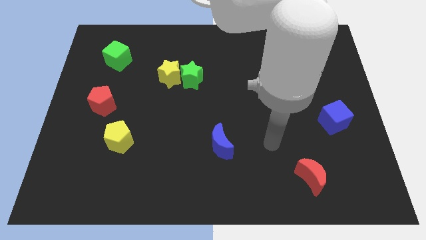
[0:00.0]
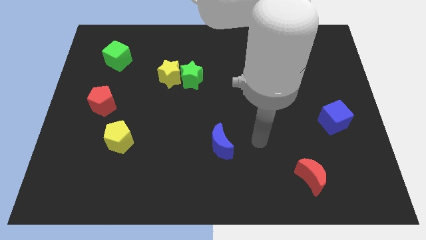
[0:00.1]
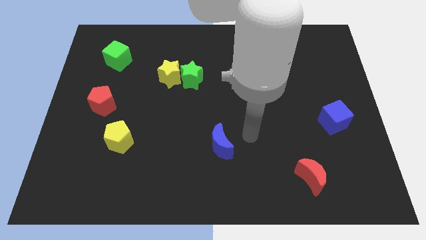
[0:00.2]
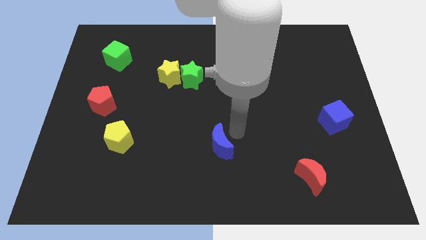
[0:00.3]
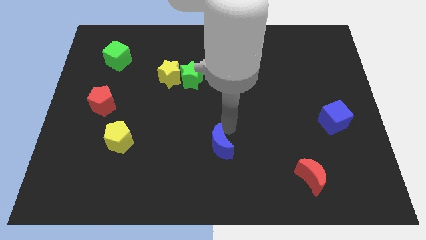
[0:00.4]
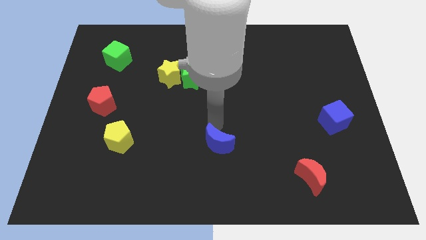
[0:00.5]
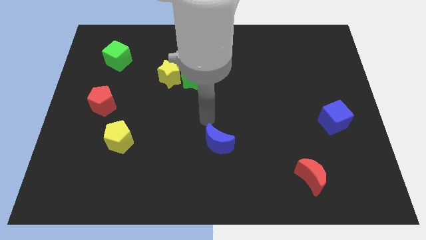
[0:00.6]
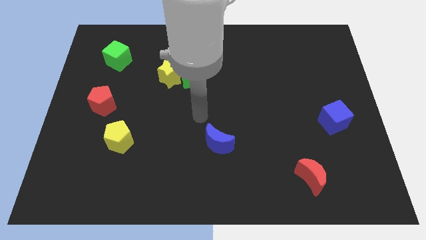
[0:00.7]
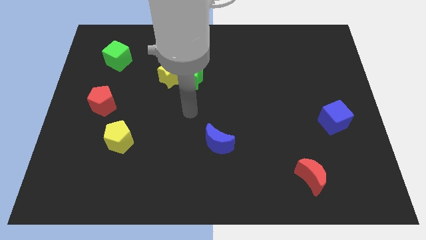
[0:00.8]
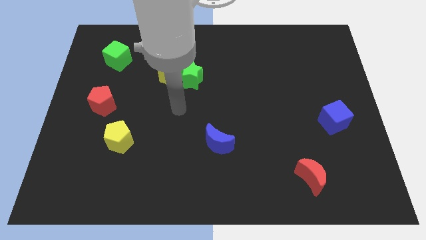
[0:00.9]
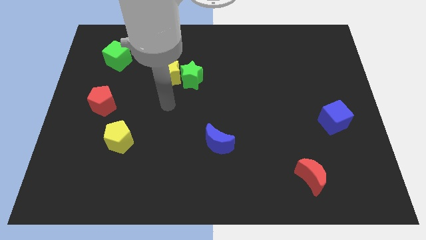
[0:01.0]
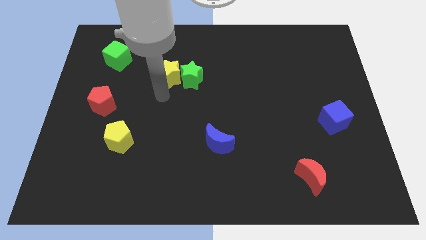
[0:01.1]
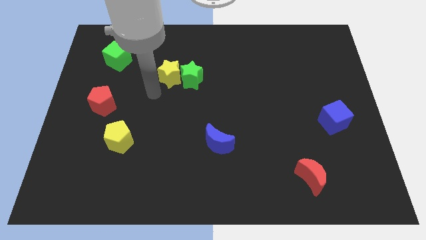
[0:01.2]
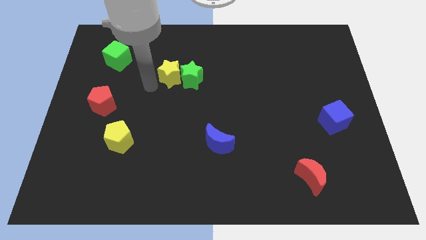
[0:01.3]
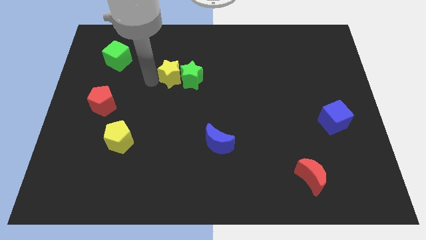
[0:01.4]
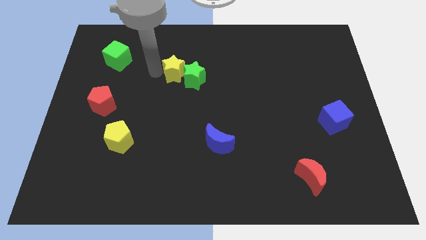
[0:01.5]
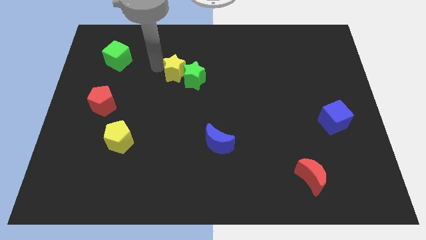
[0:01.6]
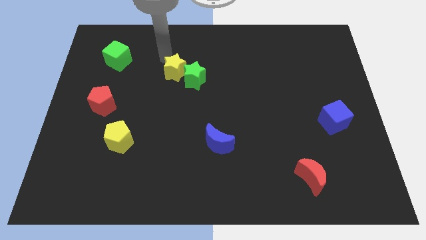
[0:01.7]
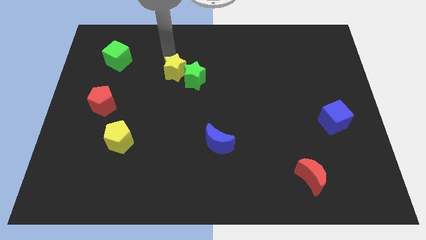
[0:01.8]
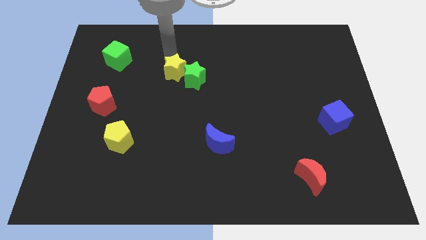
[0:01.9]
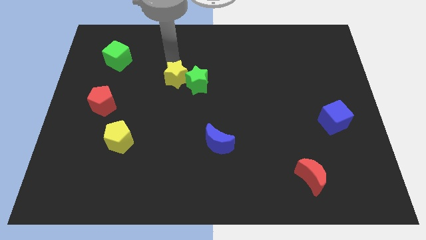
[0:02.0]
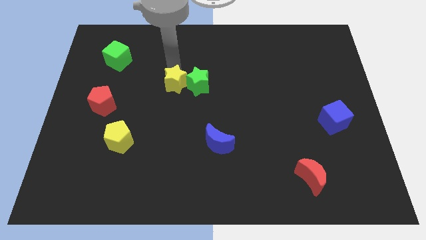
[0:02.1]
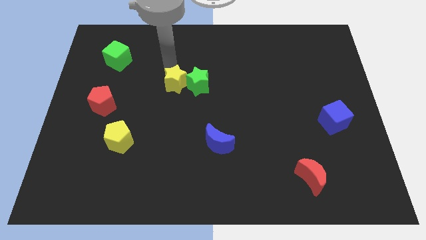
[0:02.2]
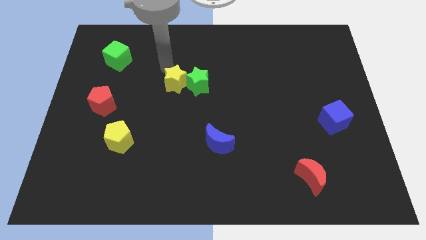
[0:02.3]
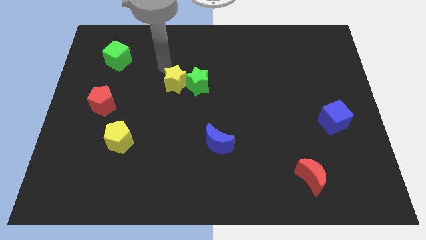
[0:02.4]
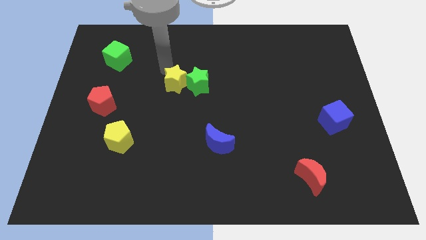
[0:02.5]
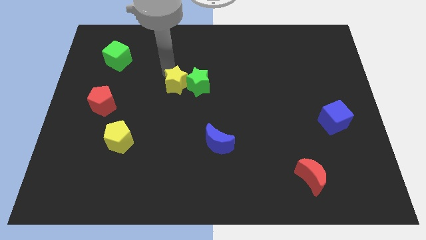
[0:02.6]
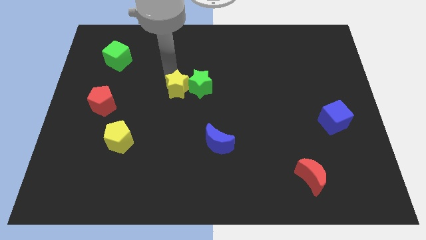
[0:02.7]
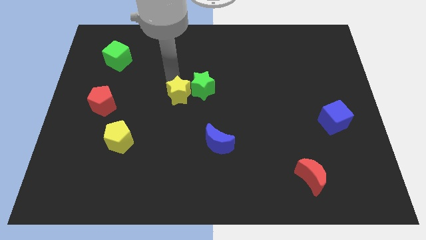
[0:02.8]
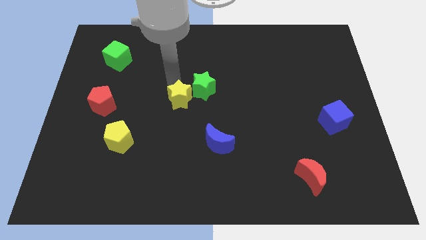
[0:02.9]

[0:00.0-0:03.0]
move the yellow star down and right slightly

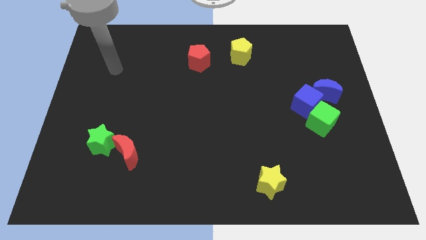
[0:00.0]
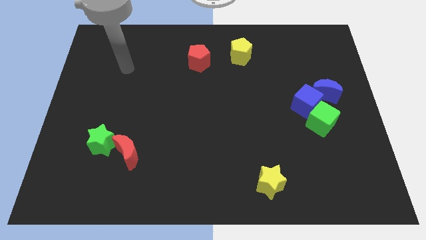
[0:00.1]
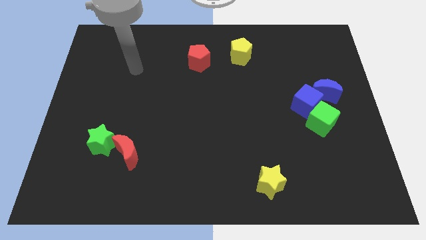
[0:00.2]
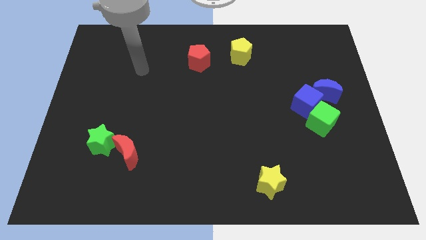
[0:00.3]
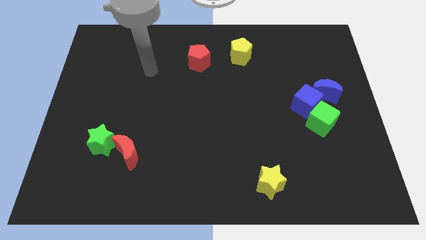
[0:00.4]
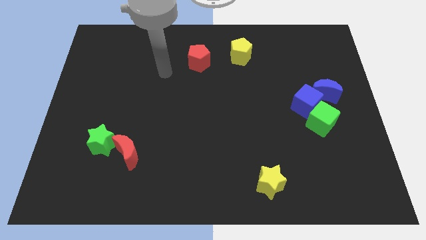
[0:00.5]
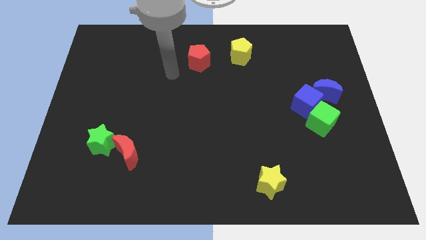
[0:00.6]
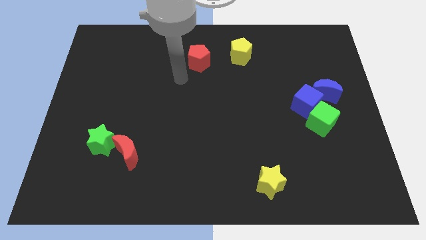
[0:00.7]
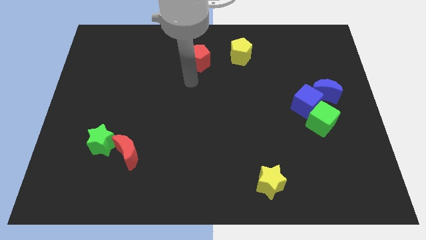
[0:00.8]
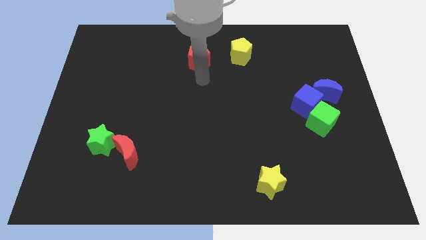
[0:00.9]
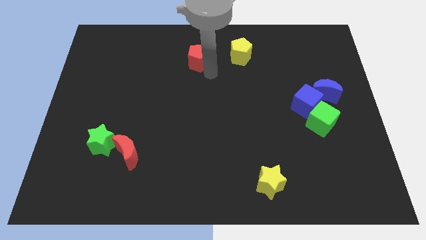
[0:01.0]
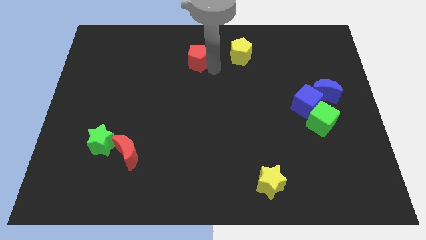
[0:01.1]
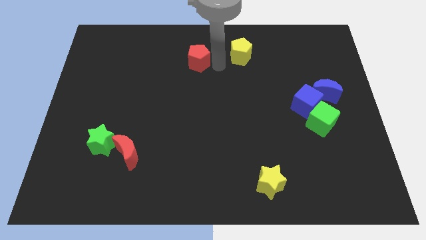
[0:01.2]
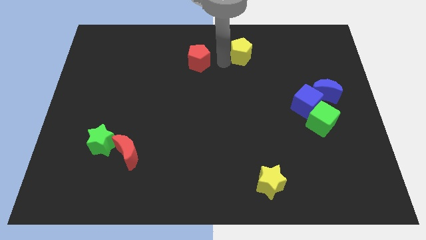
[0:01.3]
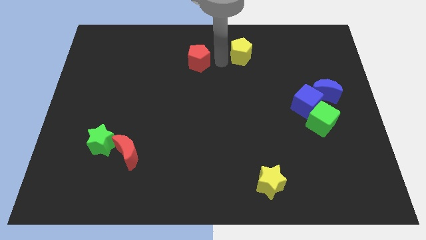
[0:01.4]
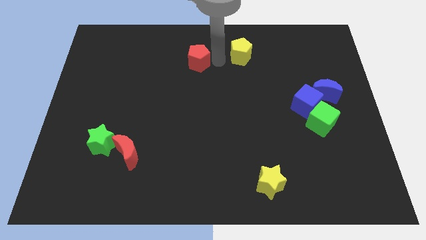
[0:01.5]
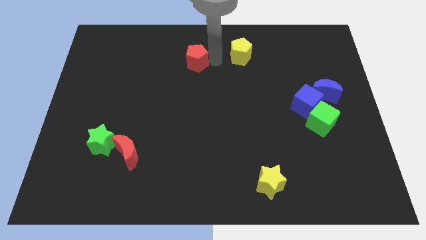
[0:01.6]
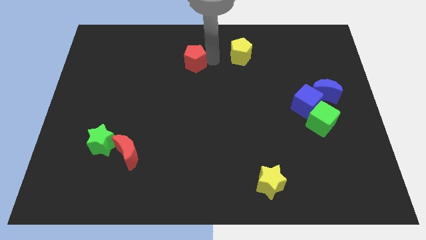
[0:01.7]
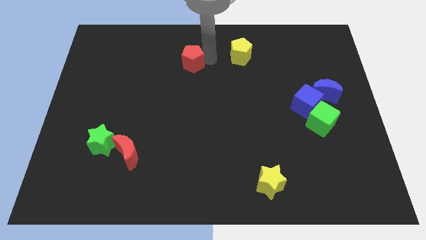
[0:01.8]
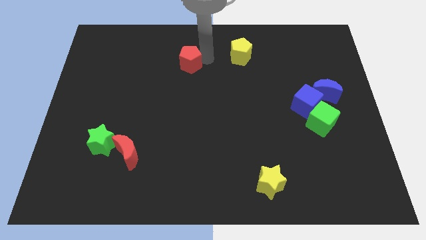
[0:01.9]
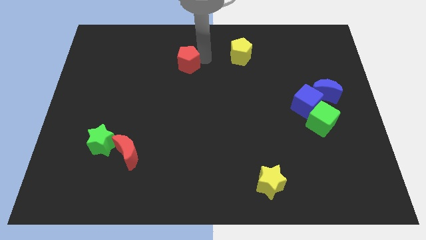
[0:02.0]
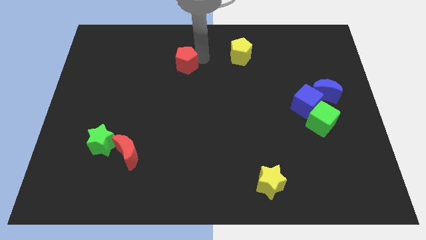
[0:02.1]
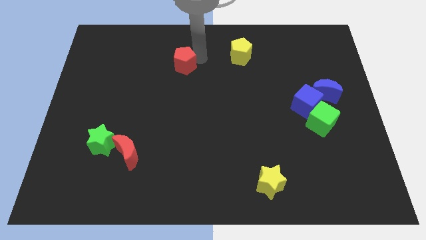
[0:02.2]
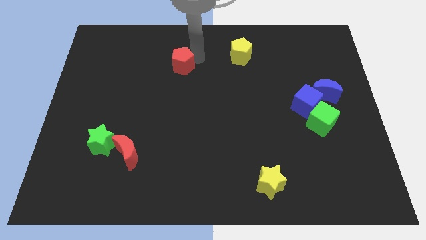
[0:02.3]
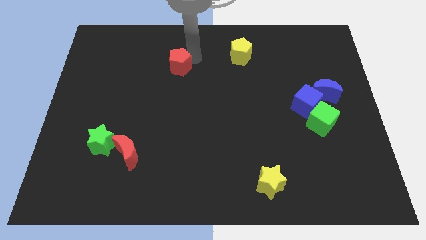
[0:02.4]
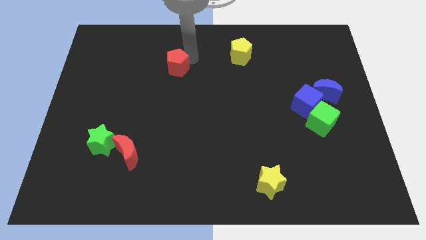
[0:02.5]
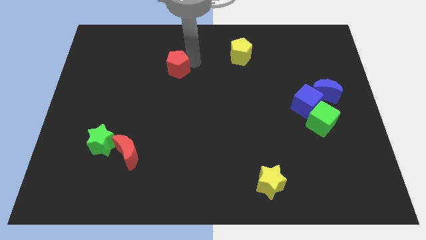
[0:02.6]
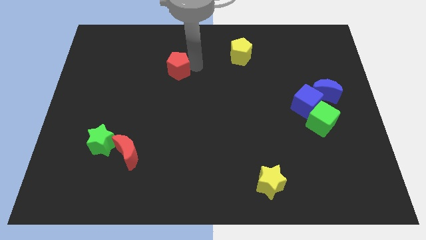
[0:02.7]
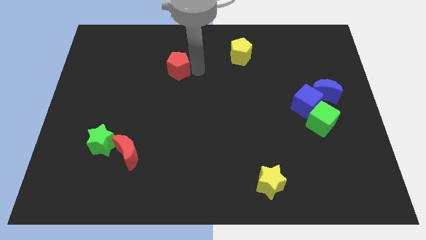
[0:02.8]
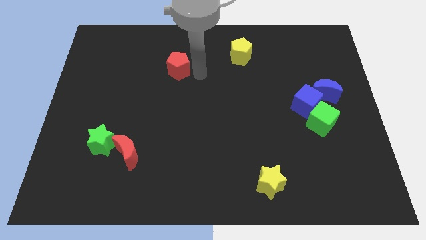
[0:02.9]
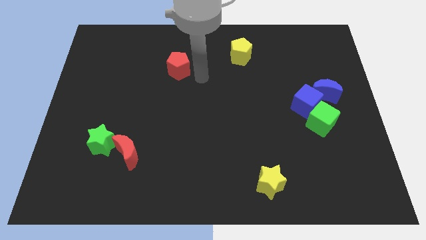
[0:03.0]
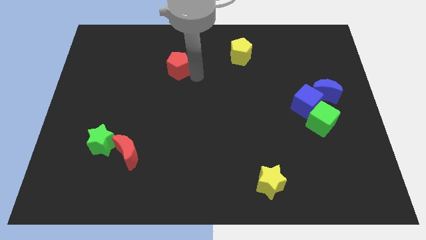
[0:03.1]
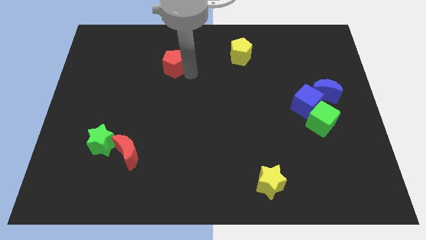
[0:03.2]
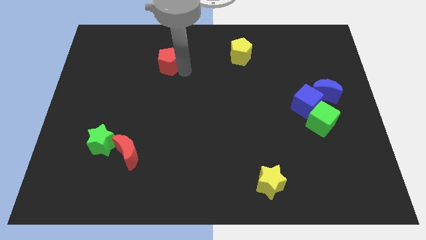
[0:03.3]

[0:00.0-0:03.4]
slide the red pentagon to the left a little

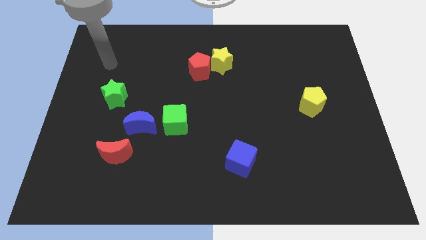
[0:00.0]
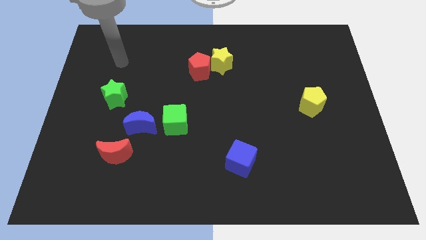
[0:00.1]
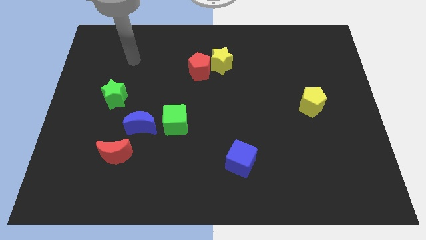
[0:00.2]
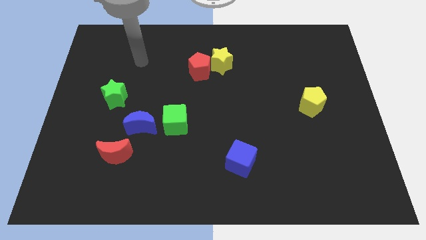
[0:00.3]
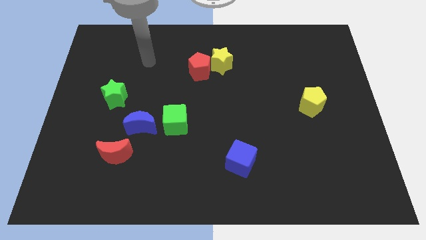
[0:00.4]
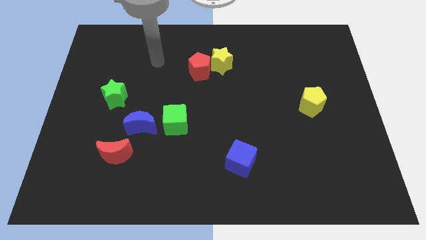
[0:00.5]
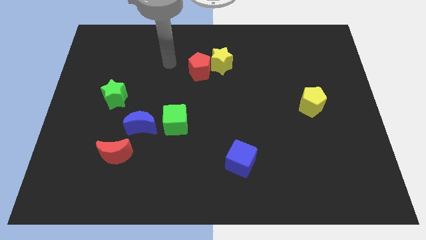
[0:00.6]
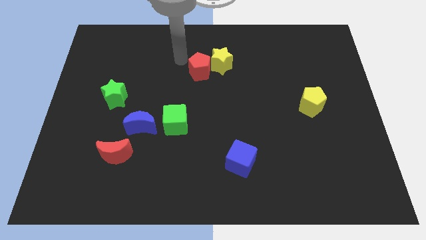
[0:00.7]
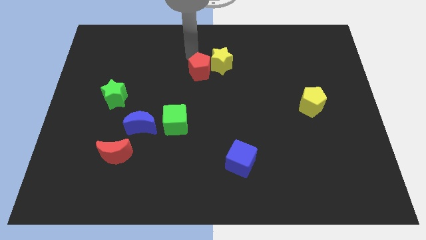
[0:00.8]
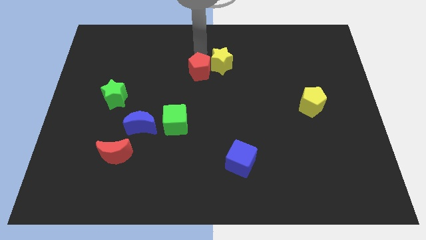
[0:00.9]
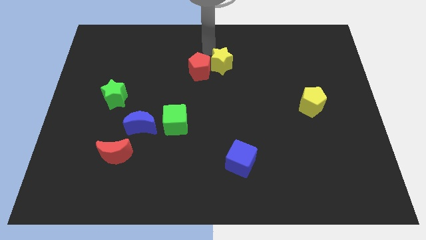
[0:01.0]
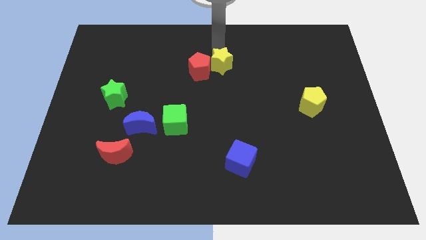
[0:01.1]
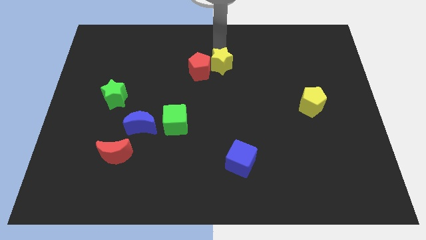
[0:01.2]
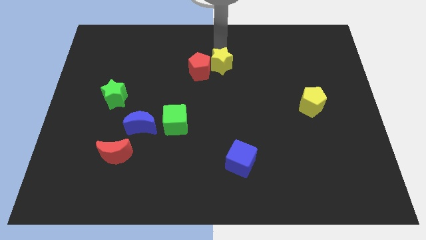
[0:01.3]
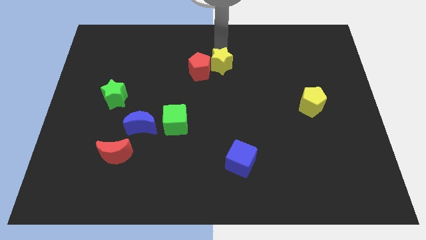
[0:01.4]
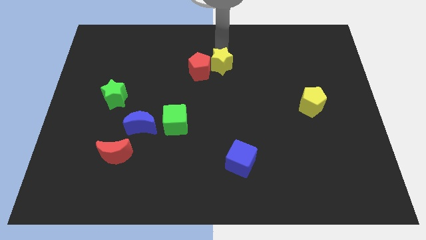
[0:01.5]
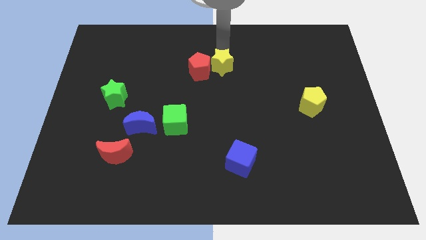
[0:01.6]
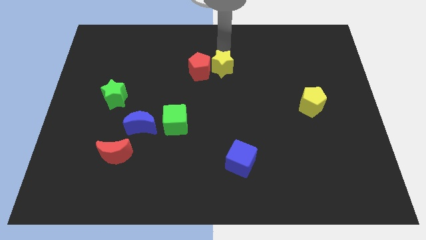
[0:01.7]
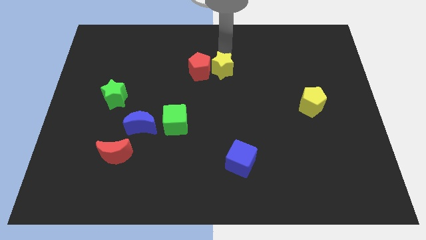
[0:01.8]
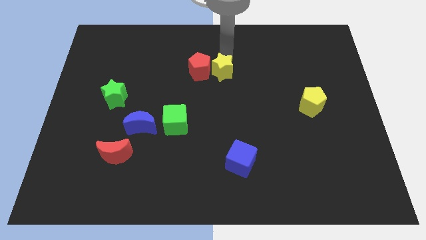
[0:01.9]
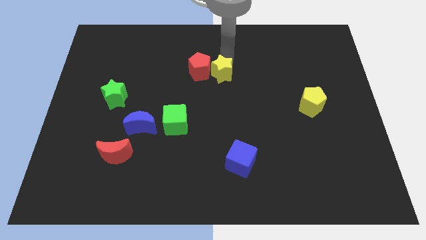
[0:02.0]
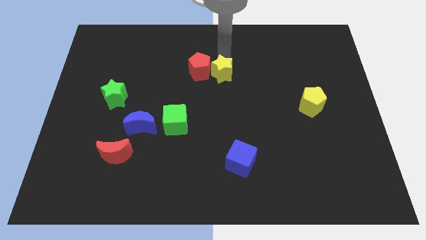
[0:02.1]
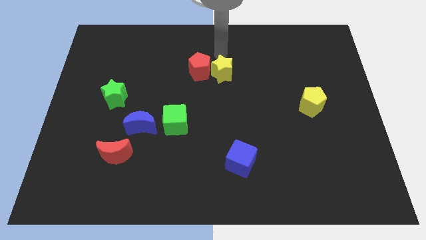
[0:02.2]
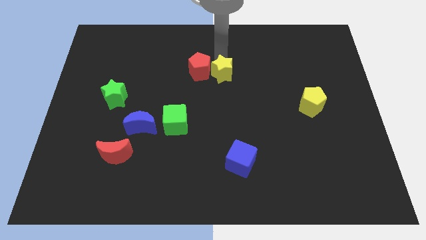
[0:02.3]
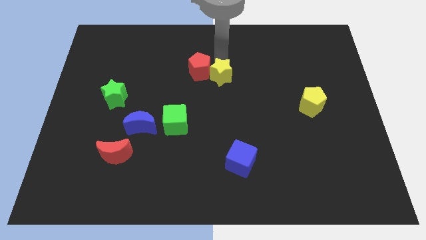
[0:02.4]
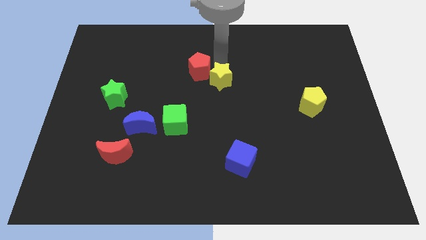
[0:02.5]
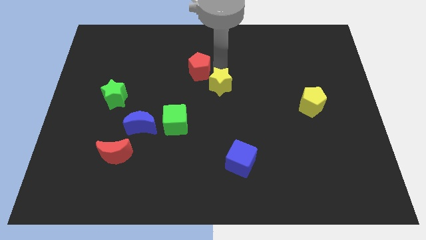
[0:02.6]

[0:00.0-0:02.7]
slightly move the yellow star downwards
